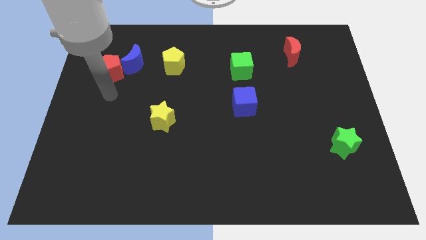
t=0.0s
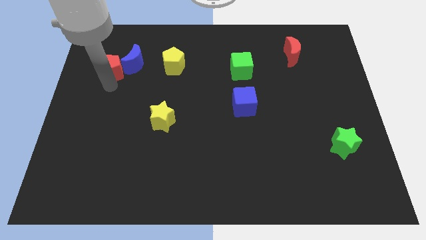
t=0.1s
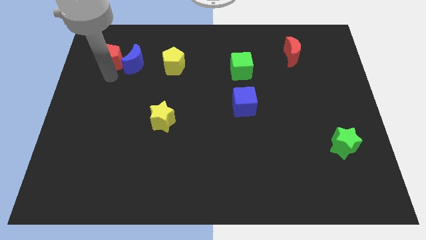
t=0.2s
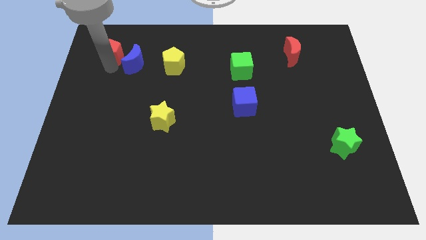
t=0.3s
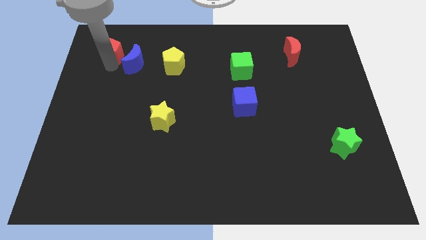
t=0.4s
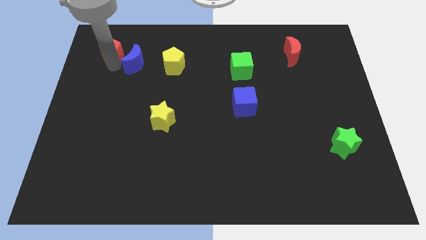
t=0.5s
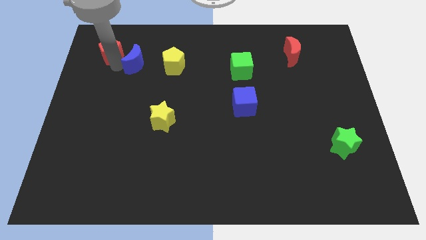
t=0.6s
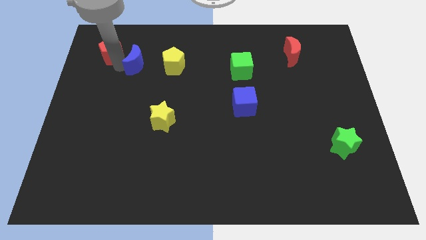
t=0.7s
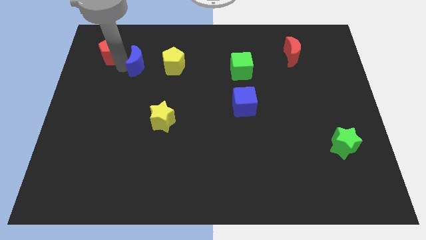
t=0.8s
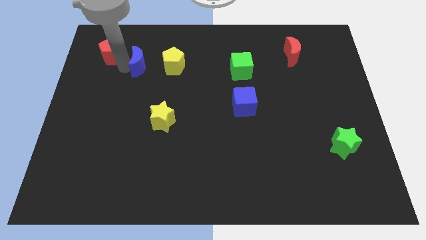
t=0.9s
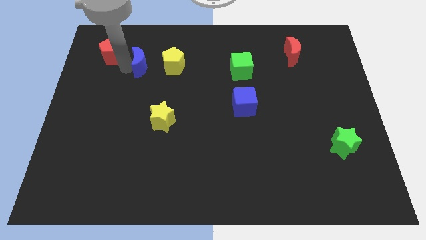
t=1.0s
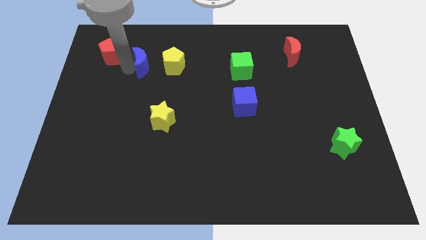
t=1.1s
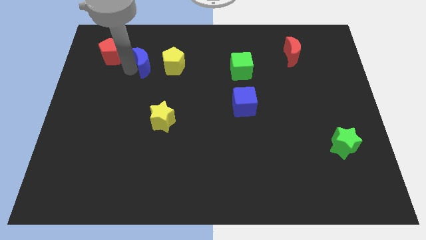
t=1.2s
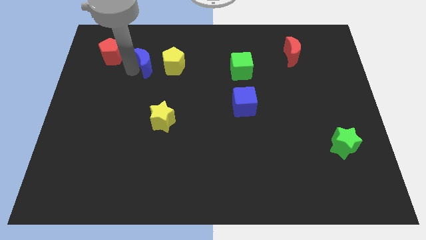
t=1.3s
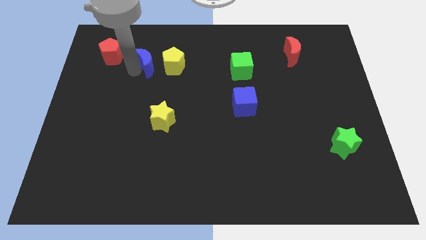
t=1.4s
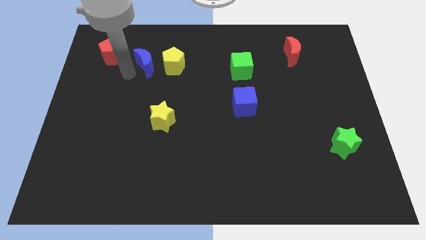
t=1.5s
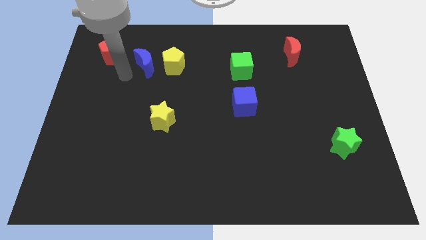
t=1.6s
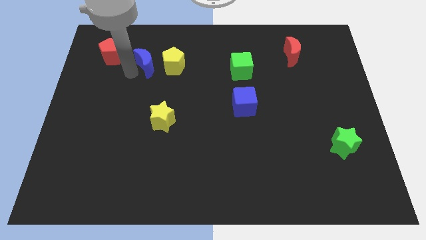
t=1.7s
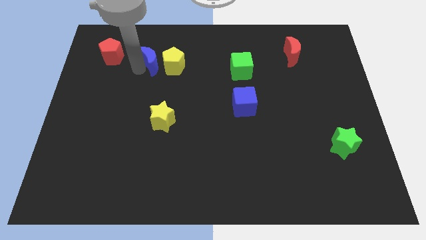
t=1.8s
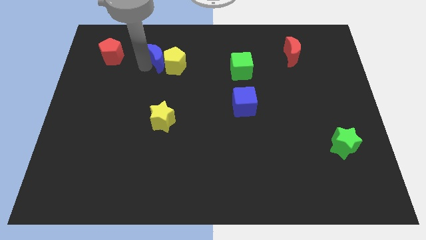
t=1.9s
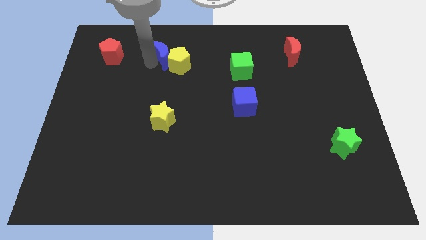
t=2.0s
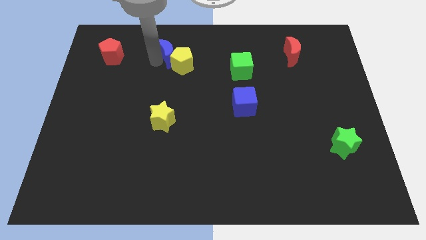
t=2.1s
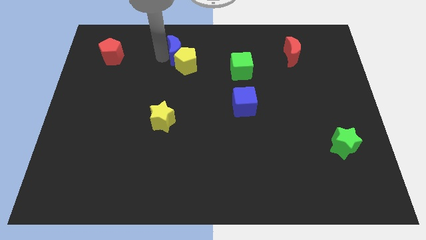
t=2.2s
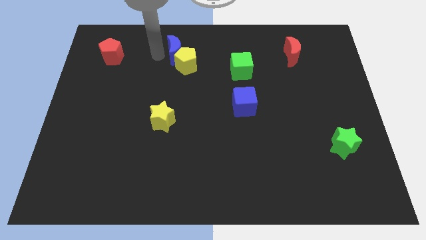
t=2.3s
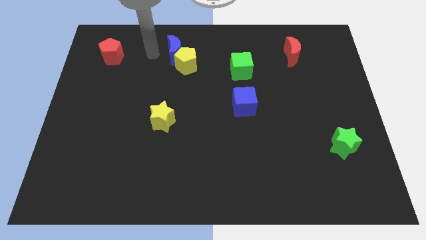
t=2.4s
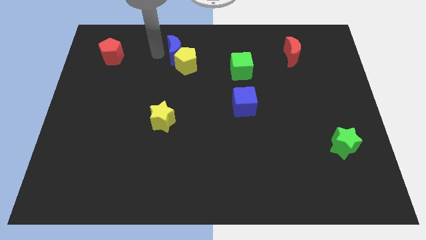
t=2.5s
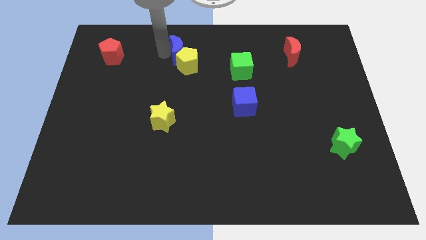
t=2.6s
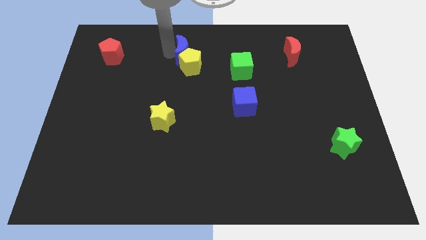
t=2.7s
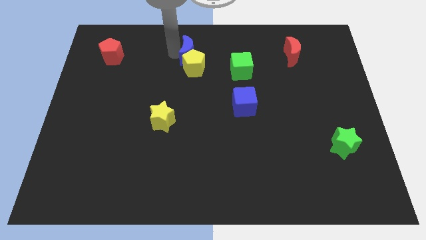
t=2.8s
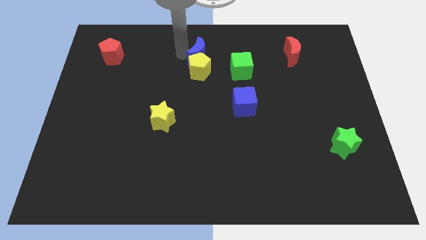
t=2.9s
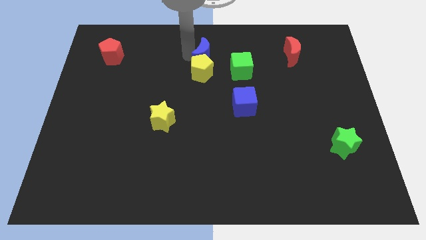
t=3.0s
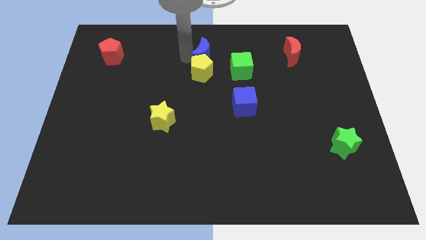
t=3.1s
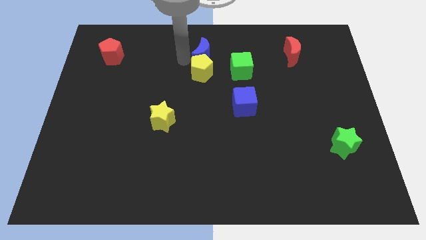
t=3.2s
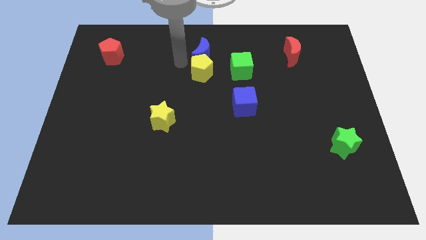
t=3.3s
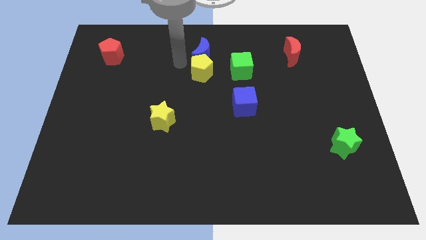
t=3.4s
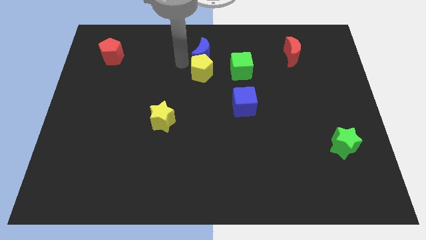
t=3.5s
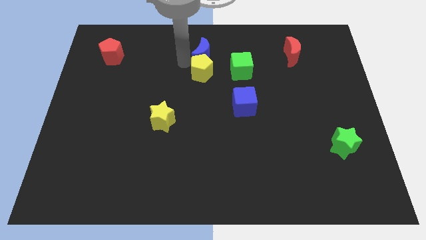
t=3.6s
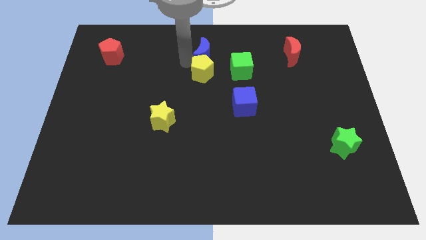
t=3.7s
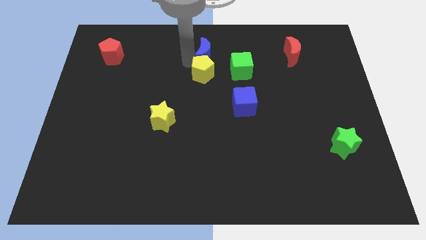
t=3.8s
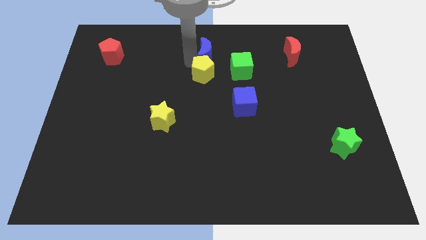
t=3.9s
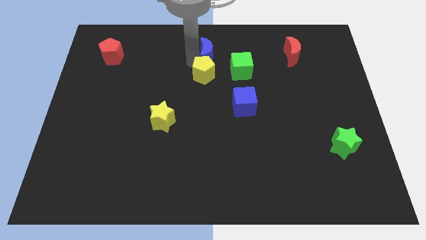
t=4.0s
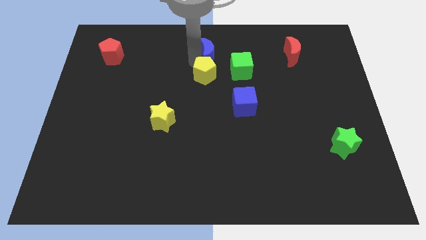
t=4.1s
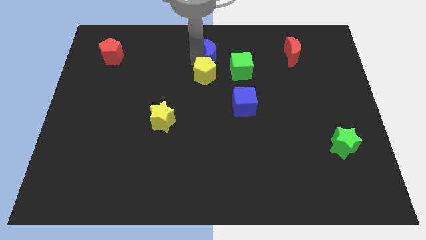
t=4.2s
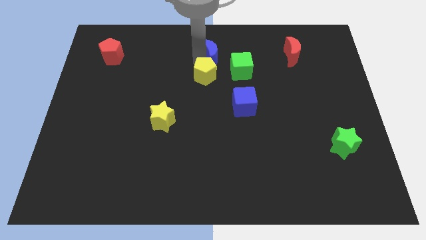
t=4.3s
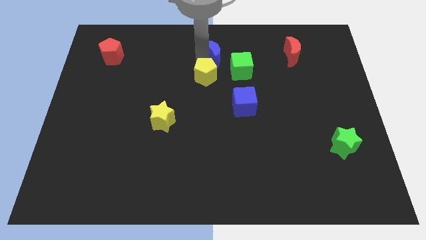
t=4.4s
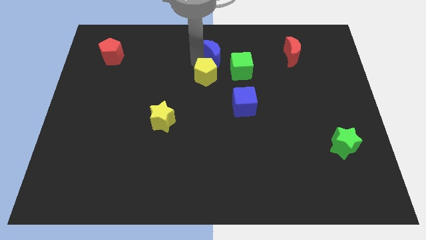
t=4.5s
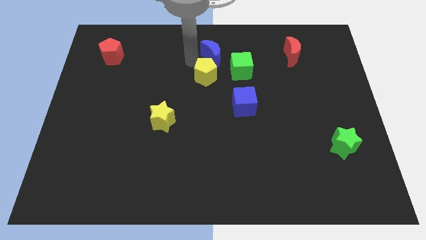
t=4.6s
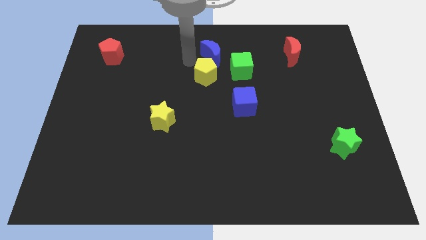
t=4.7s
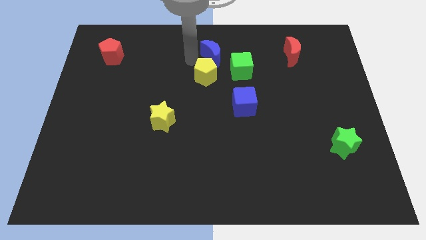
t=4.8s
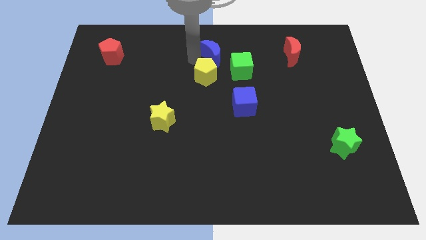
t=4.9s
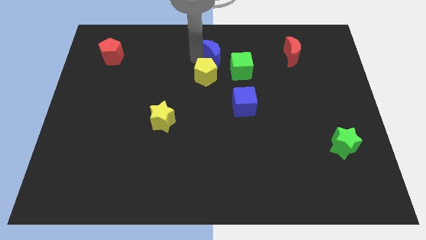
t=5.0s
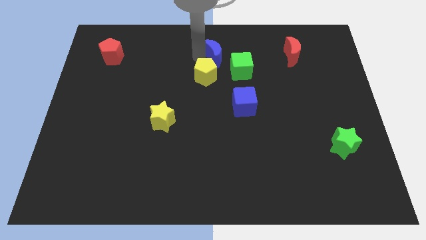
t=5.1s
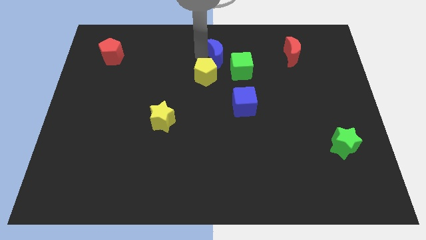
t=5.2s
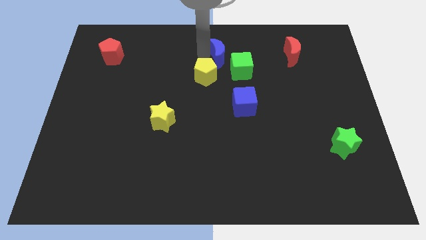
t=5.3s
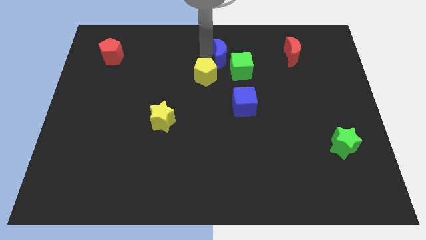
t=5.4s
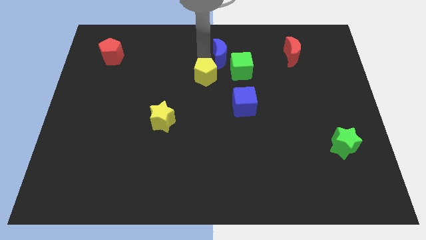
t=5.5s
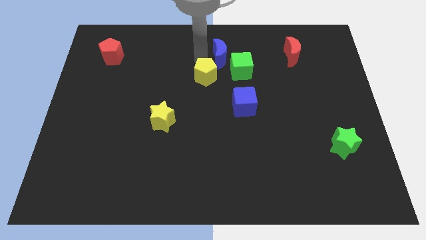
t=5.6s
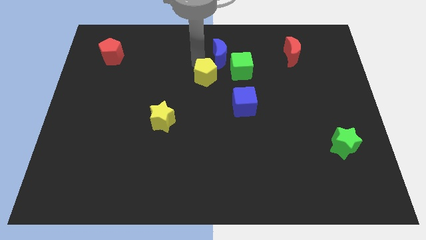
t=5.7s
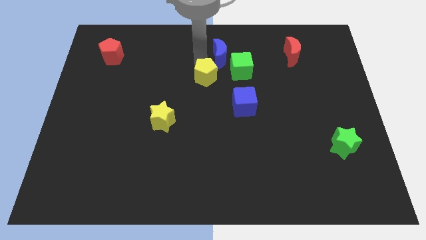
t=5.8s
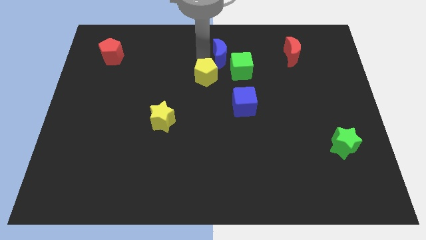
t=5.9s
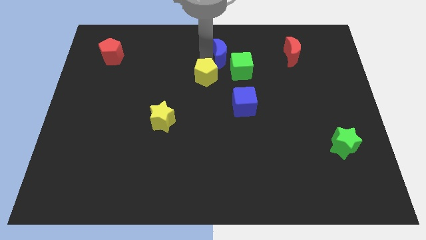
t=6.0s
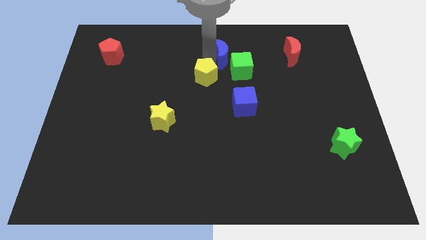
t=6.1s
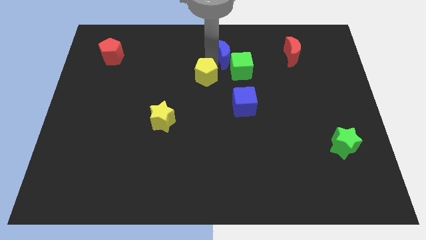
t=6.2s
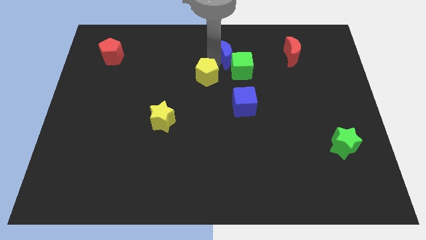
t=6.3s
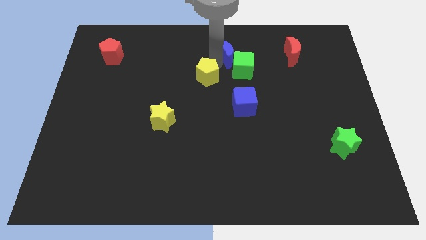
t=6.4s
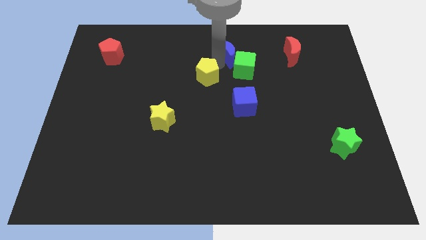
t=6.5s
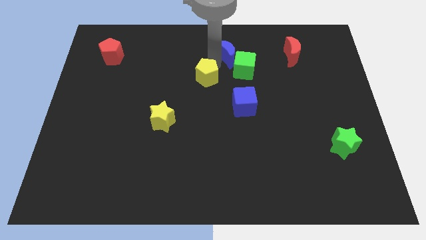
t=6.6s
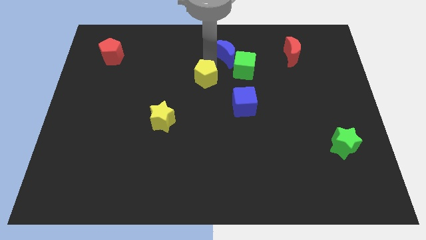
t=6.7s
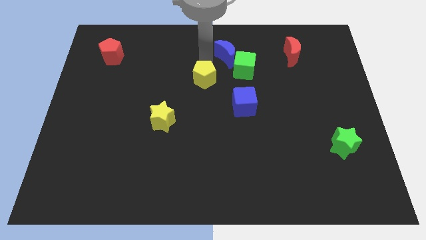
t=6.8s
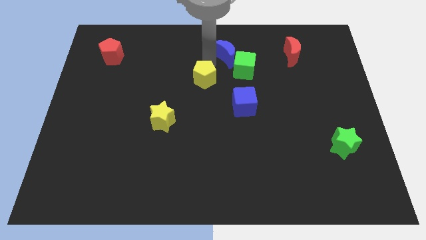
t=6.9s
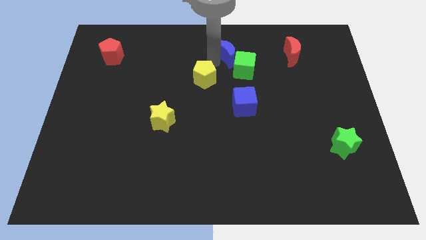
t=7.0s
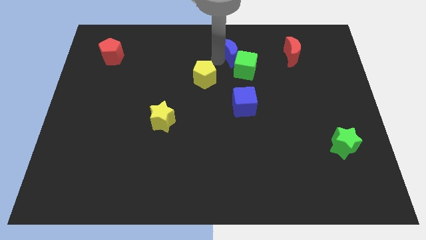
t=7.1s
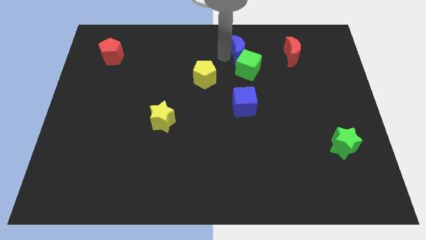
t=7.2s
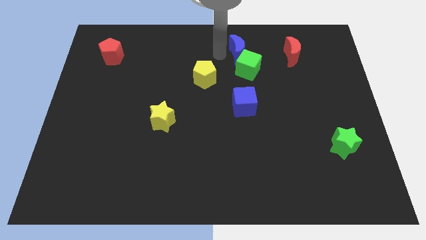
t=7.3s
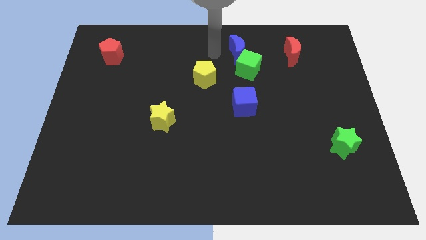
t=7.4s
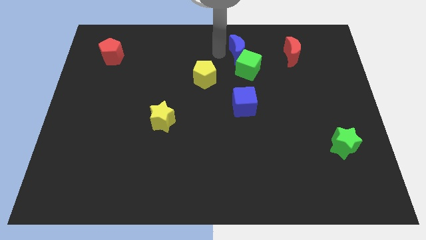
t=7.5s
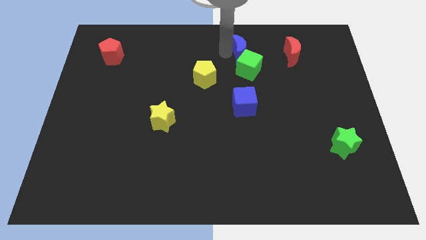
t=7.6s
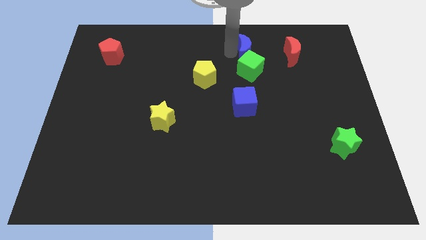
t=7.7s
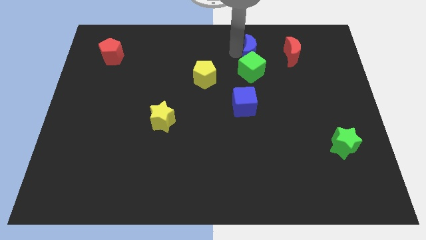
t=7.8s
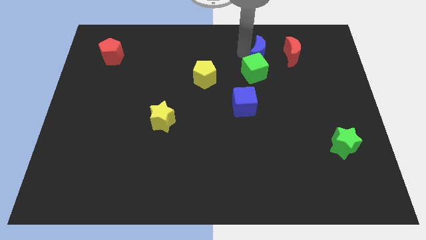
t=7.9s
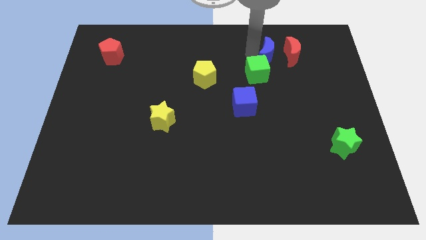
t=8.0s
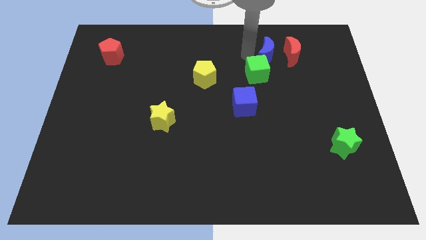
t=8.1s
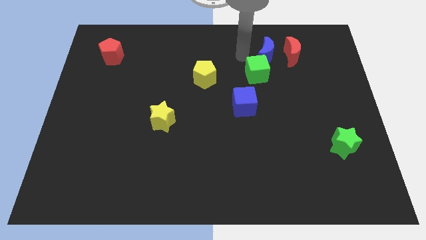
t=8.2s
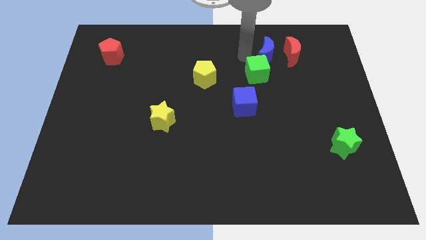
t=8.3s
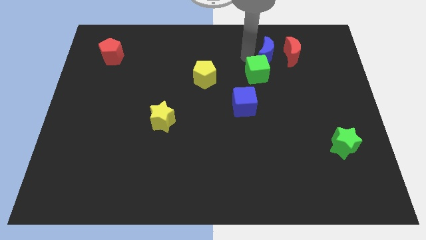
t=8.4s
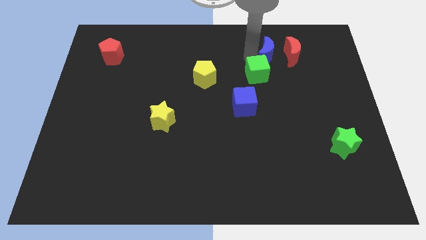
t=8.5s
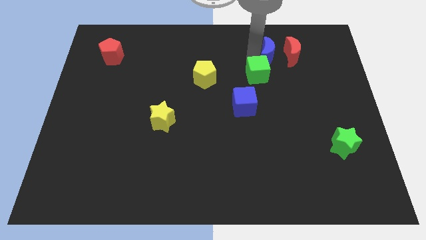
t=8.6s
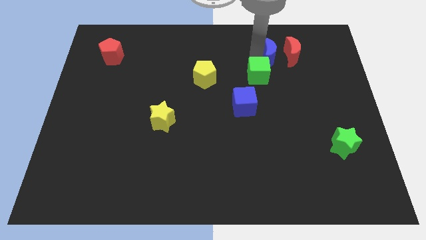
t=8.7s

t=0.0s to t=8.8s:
slide the blue moon towards the red moon
